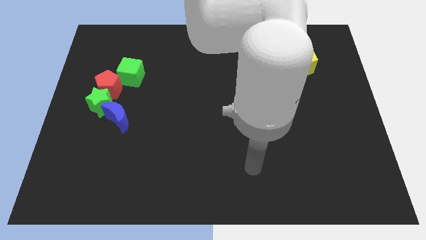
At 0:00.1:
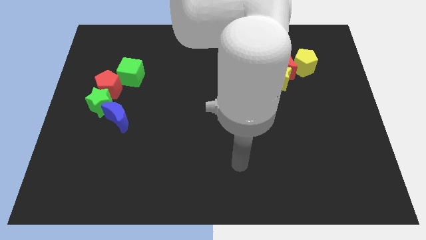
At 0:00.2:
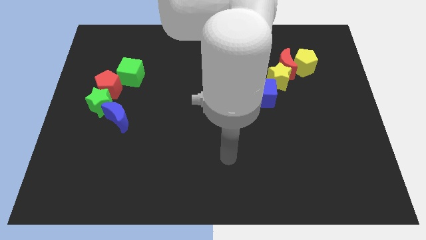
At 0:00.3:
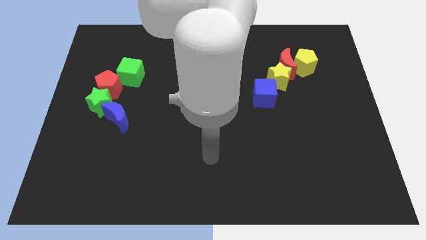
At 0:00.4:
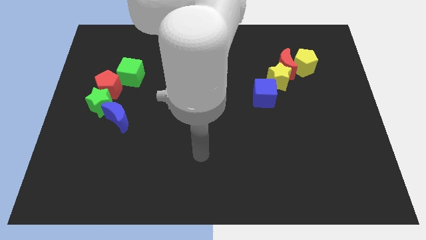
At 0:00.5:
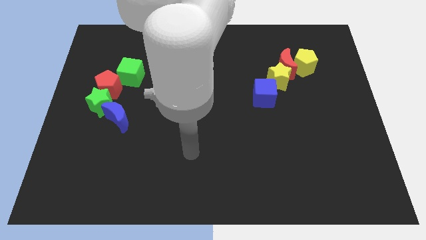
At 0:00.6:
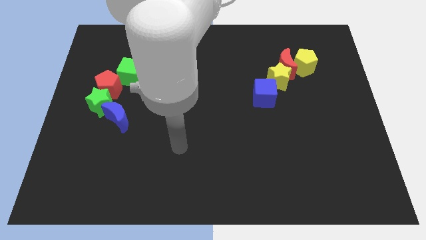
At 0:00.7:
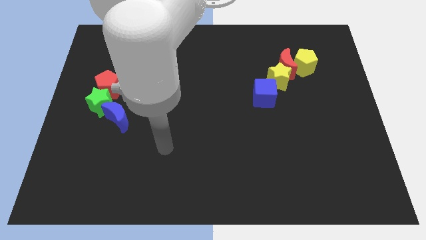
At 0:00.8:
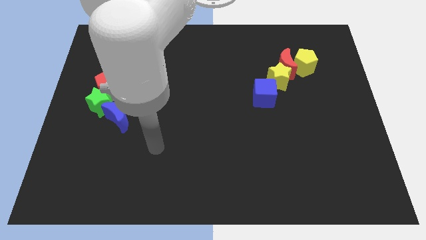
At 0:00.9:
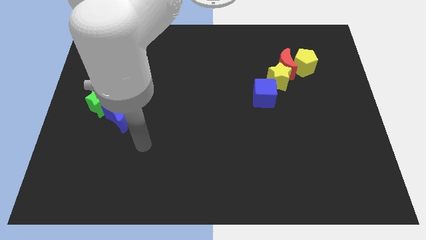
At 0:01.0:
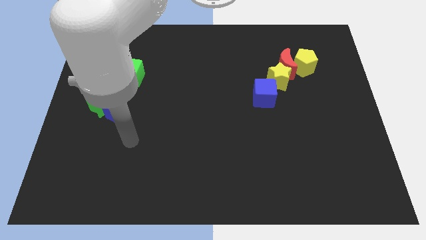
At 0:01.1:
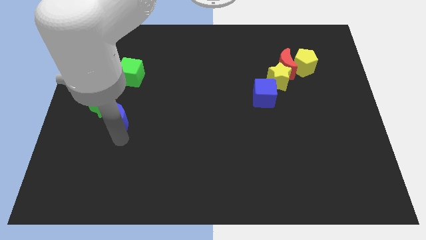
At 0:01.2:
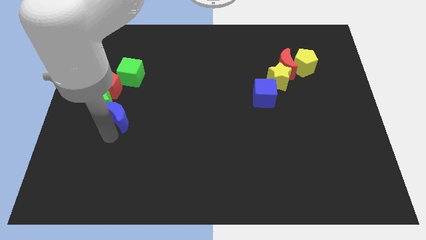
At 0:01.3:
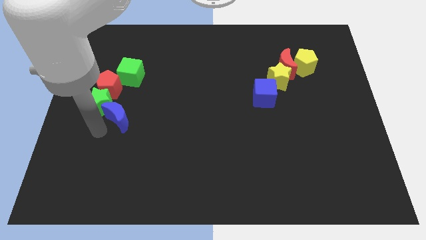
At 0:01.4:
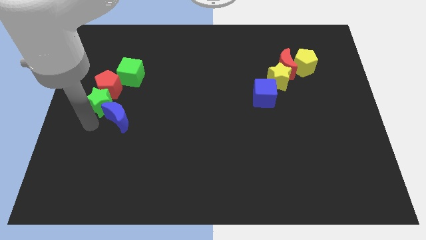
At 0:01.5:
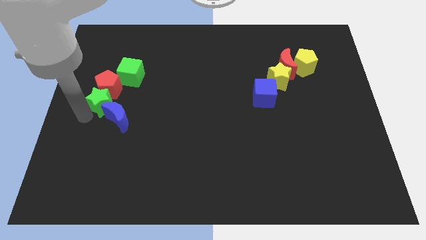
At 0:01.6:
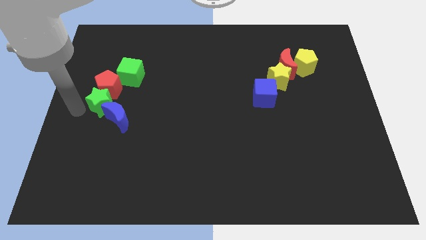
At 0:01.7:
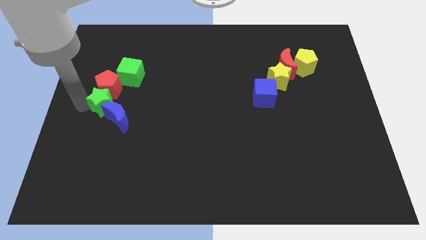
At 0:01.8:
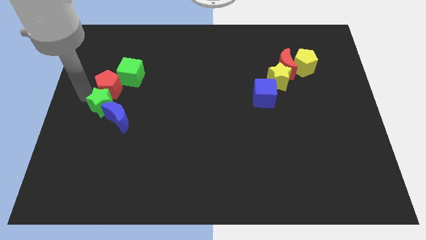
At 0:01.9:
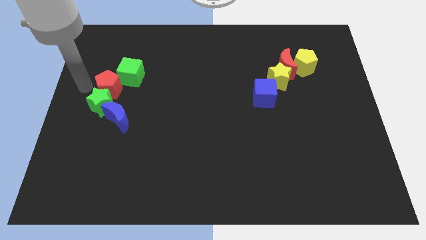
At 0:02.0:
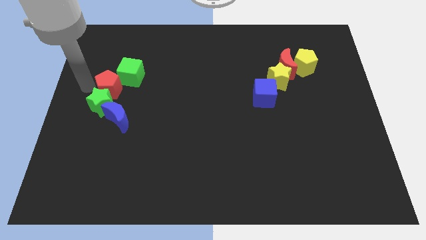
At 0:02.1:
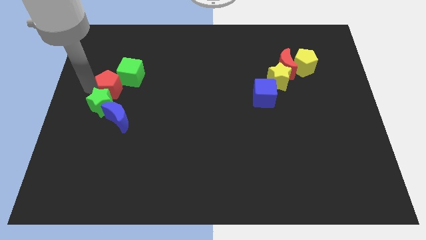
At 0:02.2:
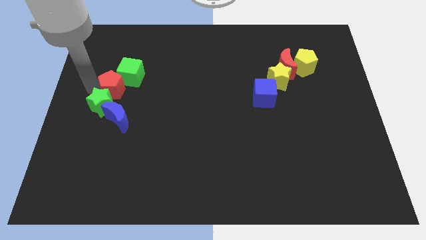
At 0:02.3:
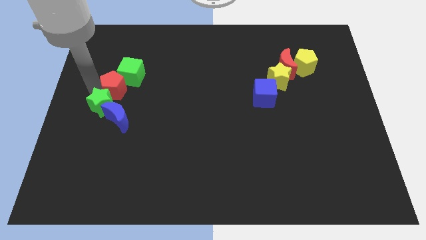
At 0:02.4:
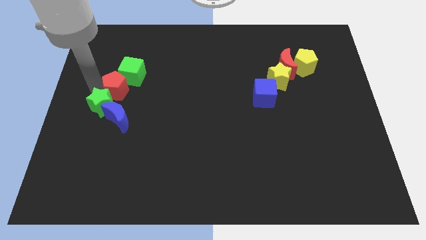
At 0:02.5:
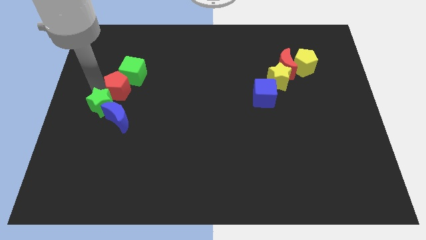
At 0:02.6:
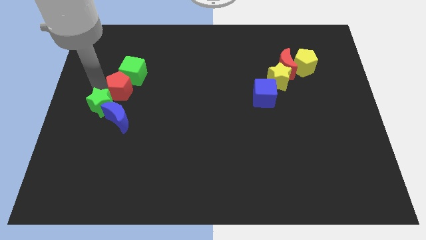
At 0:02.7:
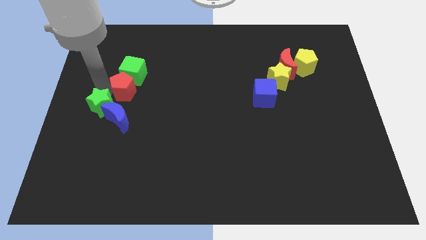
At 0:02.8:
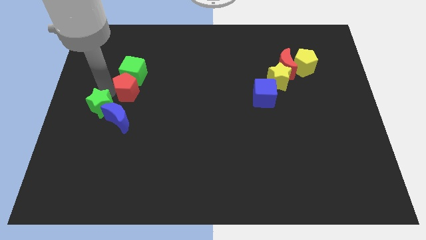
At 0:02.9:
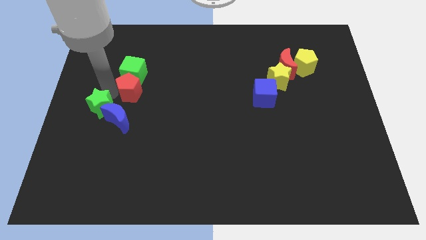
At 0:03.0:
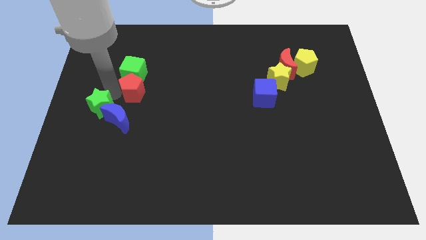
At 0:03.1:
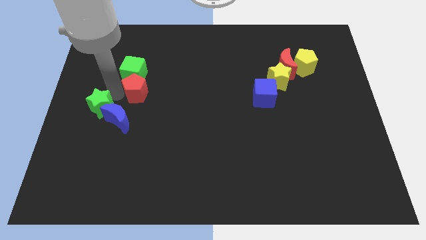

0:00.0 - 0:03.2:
slide the red pentagon a little bit right

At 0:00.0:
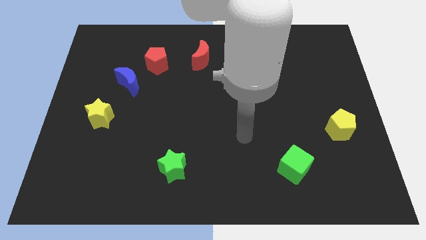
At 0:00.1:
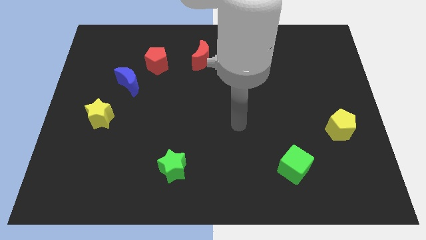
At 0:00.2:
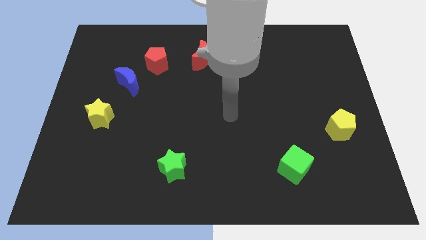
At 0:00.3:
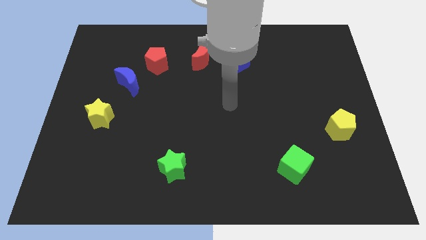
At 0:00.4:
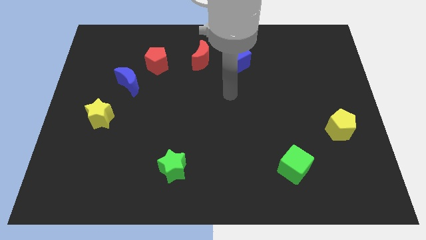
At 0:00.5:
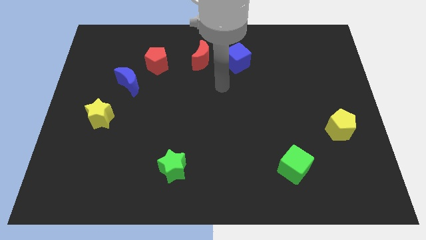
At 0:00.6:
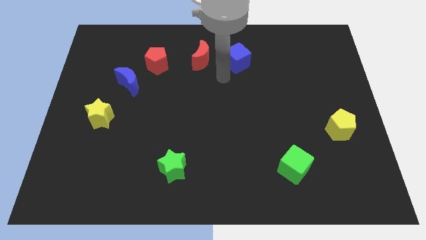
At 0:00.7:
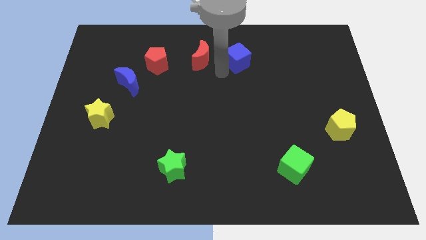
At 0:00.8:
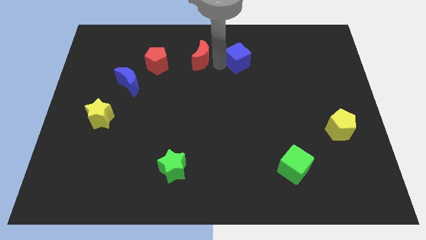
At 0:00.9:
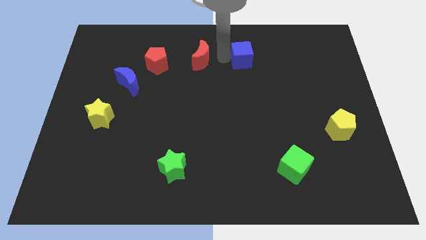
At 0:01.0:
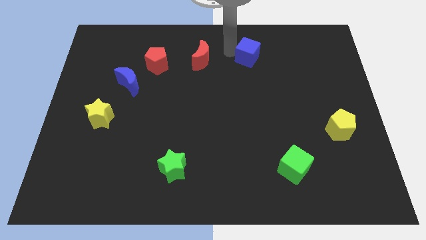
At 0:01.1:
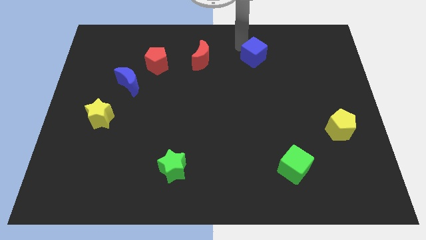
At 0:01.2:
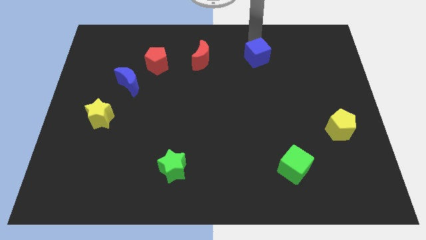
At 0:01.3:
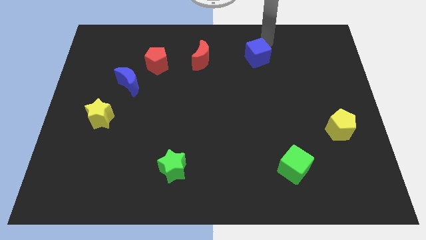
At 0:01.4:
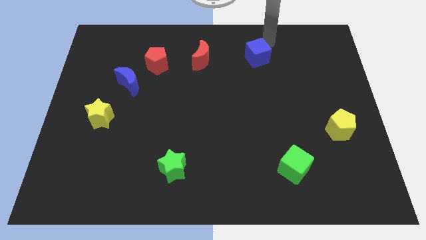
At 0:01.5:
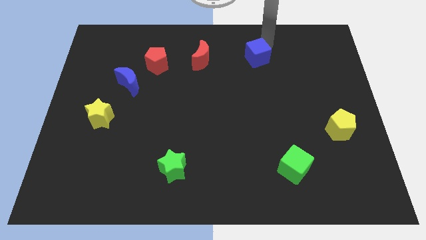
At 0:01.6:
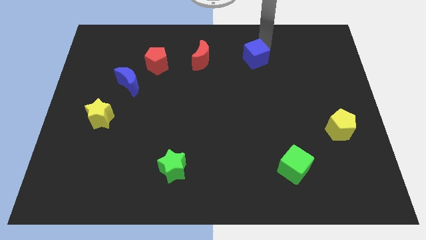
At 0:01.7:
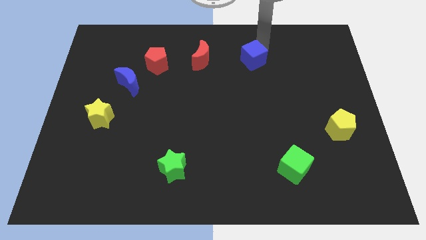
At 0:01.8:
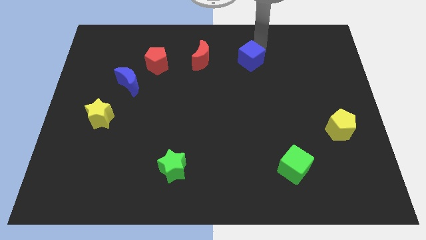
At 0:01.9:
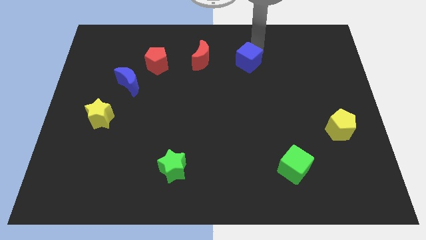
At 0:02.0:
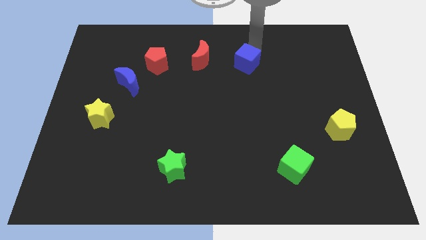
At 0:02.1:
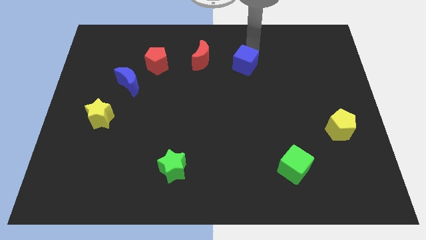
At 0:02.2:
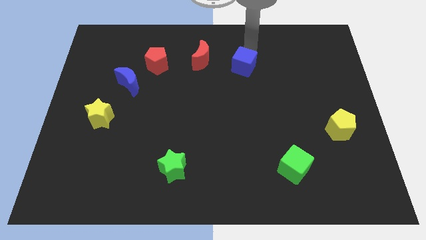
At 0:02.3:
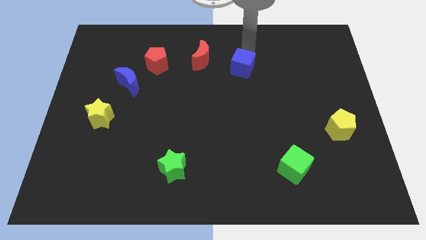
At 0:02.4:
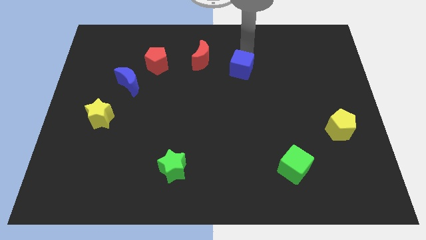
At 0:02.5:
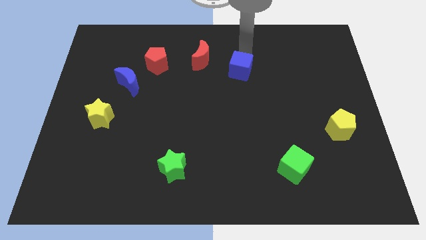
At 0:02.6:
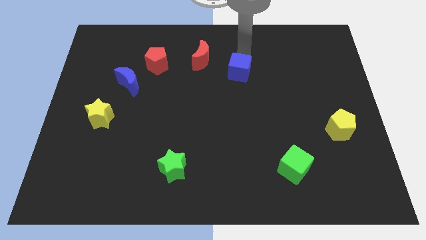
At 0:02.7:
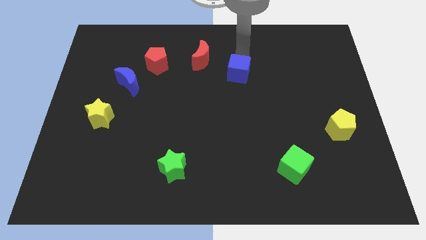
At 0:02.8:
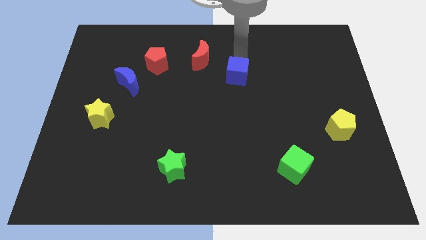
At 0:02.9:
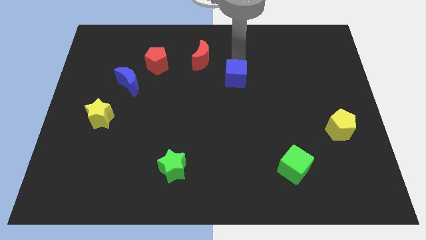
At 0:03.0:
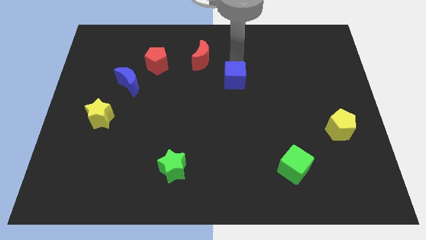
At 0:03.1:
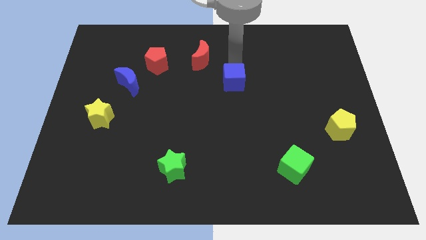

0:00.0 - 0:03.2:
slide the blue cube downwards a bit

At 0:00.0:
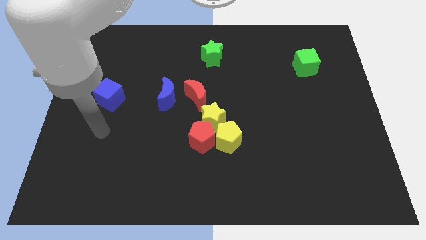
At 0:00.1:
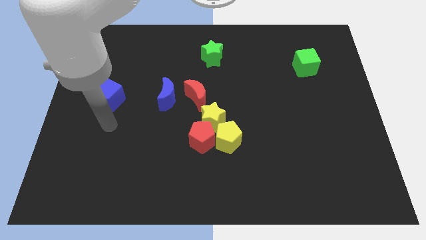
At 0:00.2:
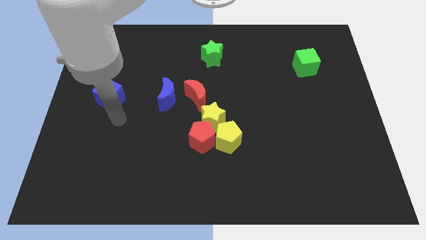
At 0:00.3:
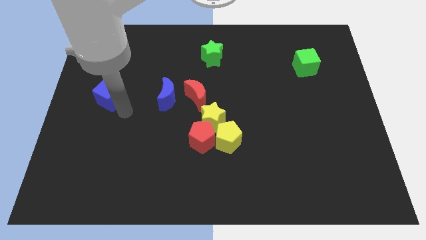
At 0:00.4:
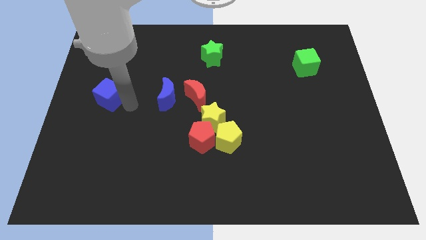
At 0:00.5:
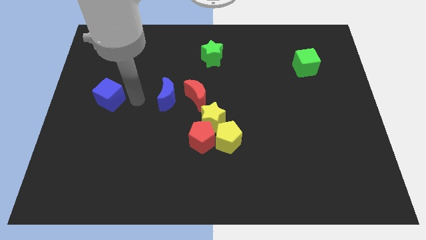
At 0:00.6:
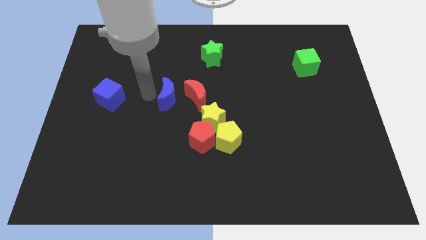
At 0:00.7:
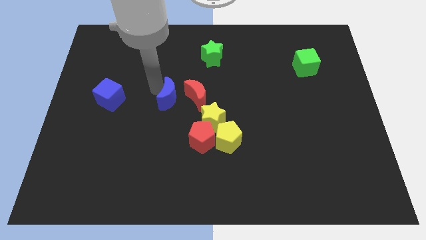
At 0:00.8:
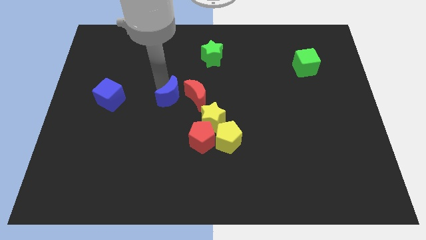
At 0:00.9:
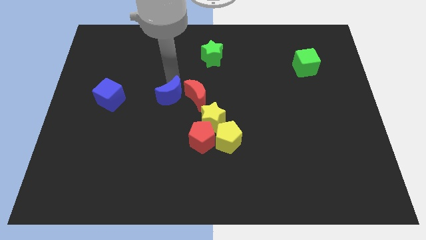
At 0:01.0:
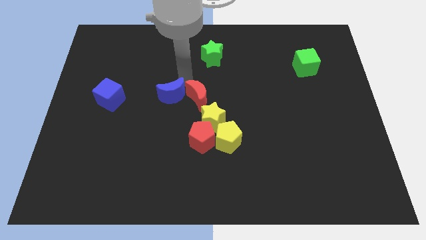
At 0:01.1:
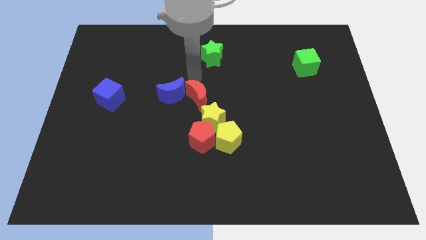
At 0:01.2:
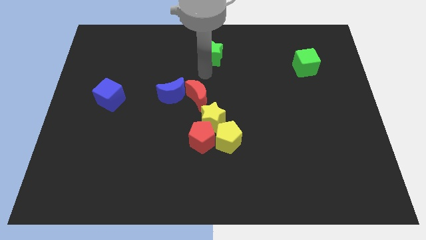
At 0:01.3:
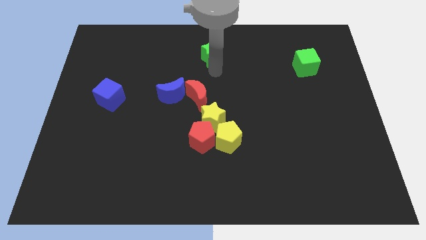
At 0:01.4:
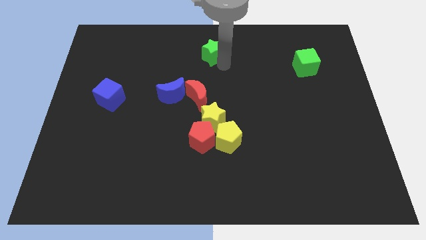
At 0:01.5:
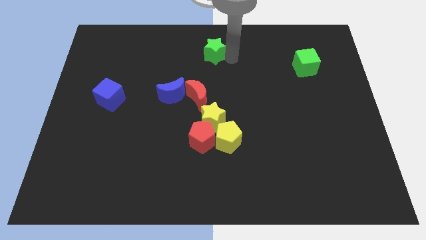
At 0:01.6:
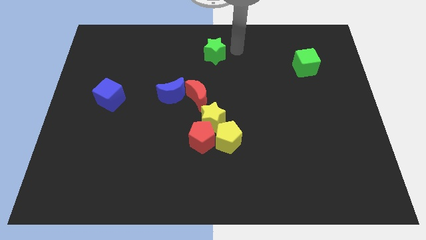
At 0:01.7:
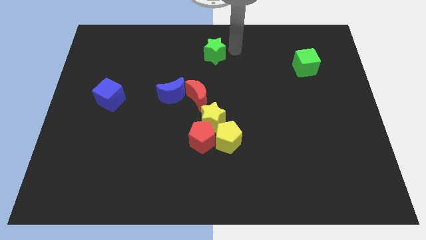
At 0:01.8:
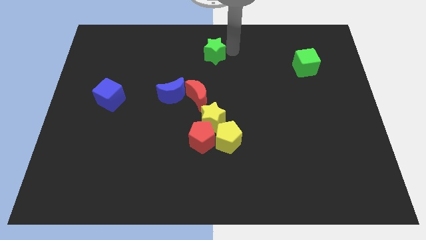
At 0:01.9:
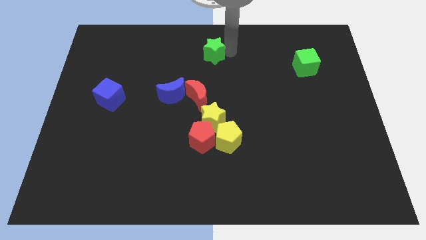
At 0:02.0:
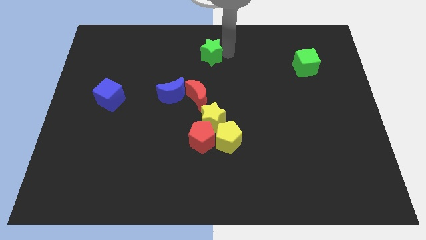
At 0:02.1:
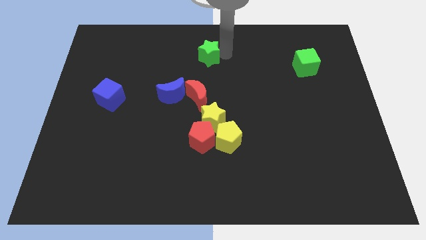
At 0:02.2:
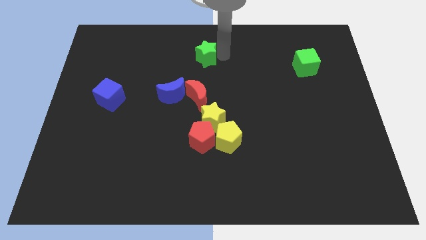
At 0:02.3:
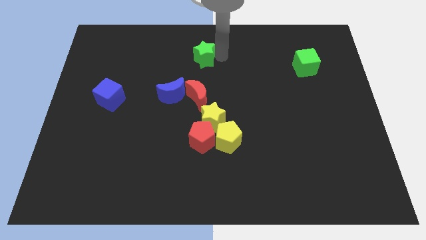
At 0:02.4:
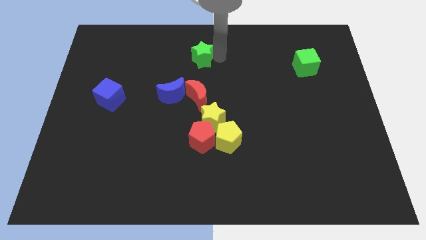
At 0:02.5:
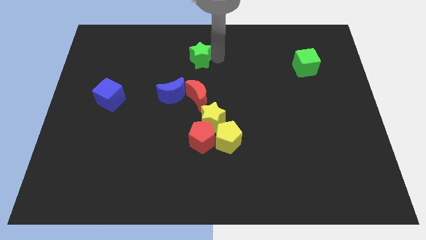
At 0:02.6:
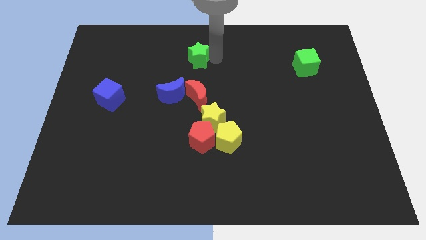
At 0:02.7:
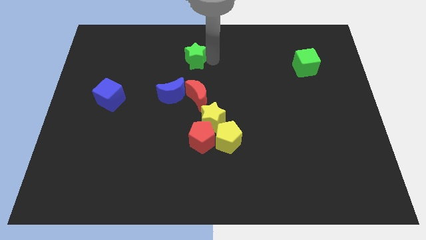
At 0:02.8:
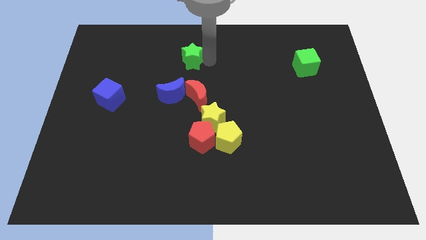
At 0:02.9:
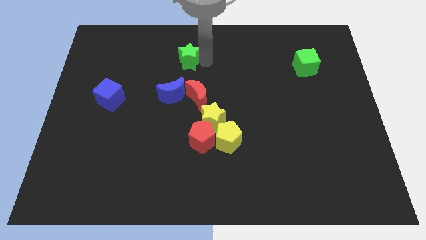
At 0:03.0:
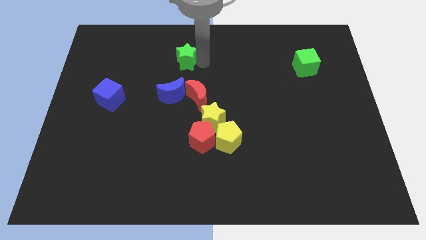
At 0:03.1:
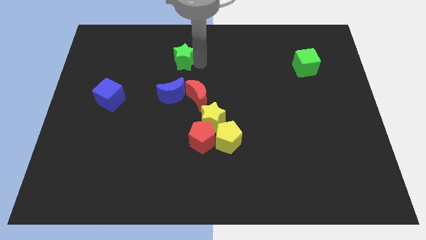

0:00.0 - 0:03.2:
slightly move the green star left
